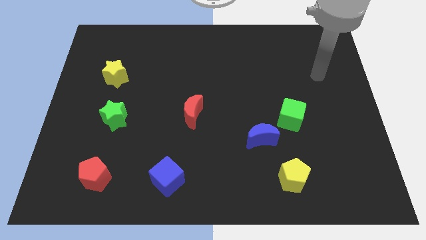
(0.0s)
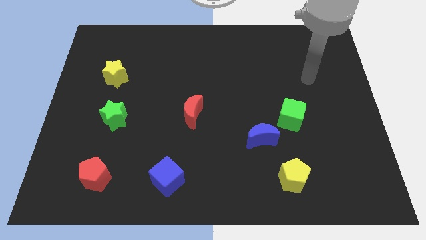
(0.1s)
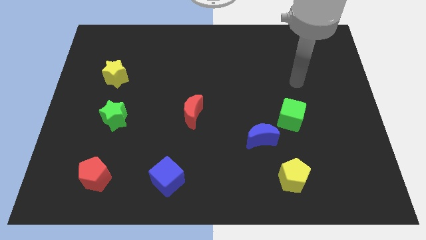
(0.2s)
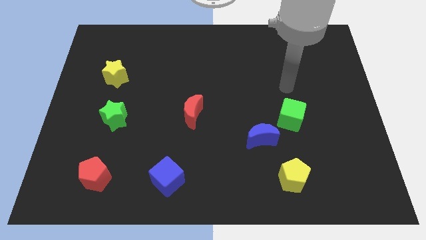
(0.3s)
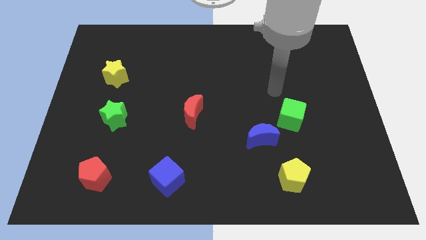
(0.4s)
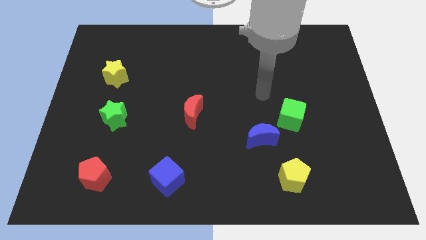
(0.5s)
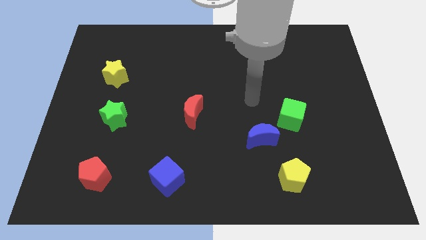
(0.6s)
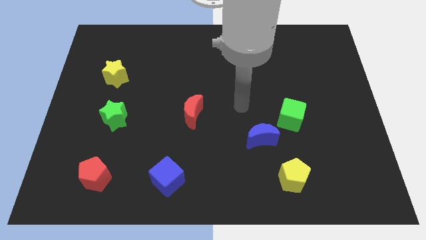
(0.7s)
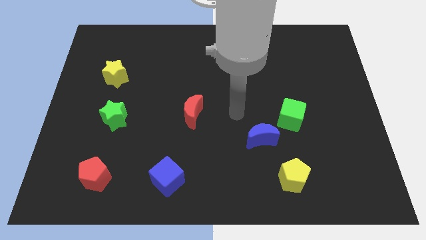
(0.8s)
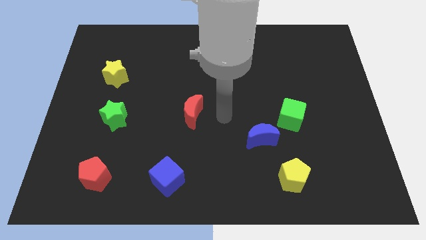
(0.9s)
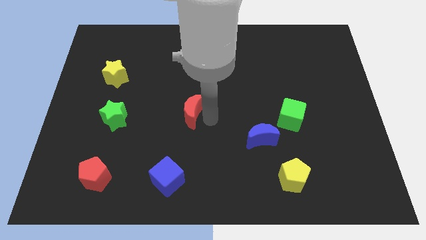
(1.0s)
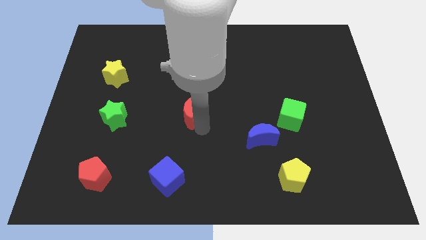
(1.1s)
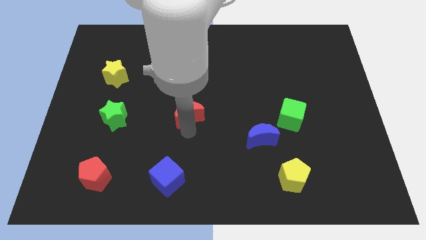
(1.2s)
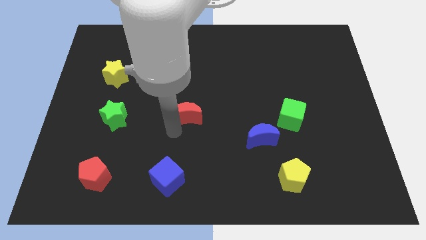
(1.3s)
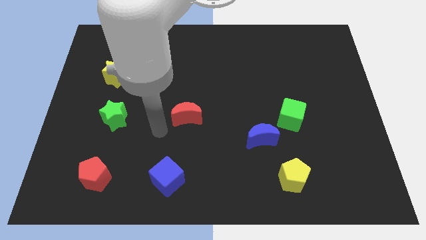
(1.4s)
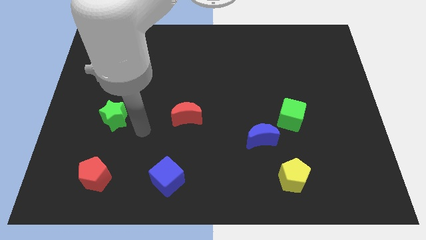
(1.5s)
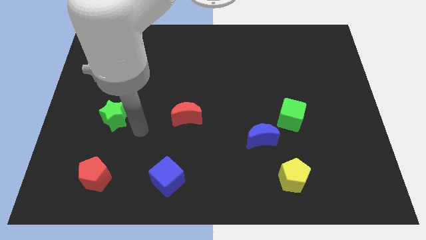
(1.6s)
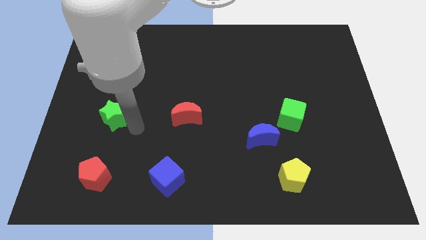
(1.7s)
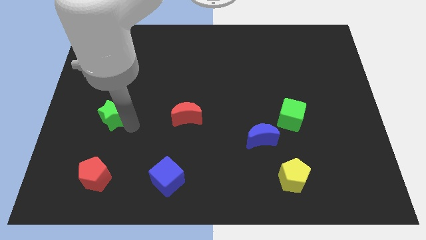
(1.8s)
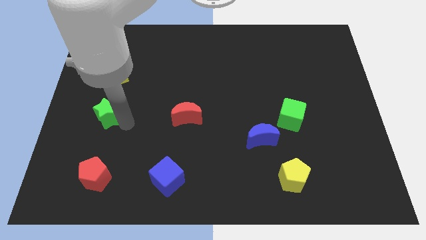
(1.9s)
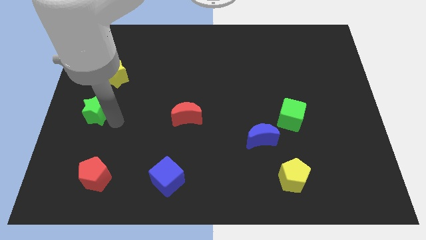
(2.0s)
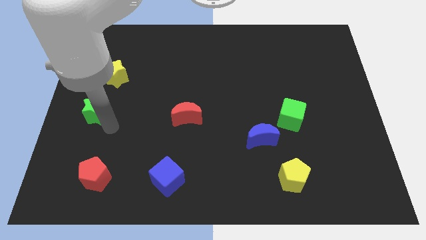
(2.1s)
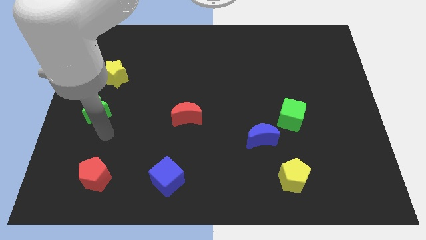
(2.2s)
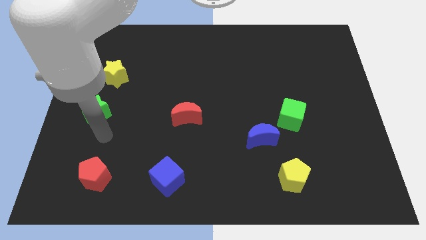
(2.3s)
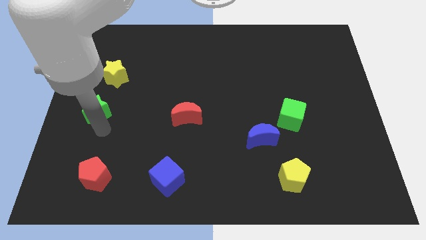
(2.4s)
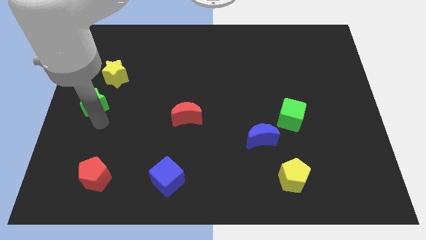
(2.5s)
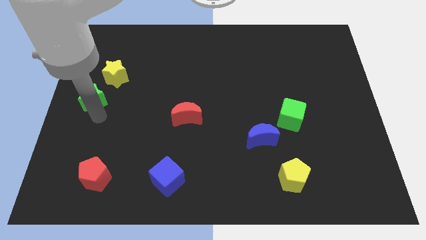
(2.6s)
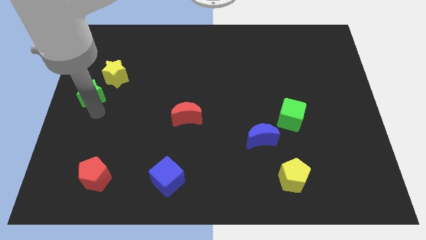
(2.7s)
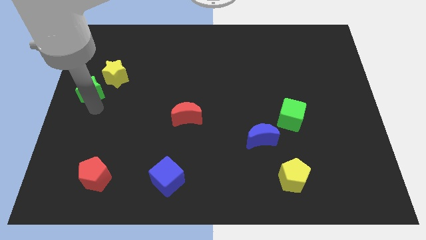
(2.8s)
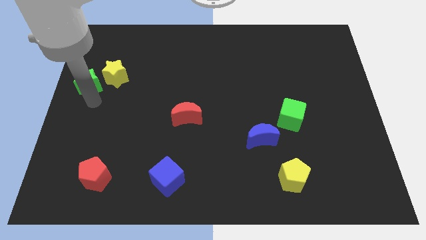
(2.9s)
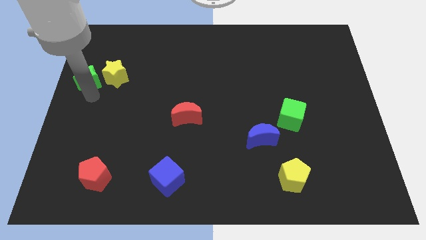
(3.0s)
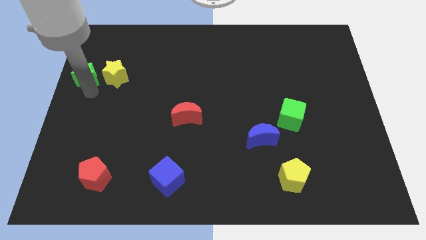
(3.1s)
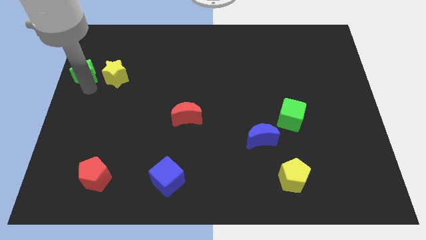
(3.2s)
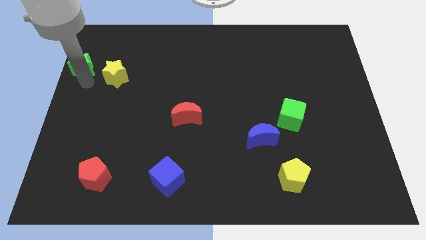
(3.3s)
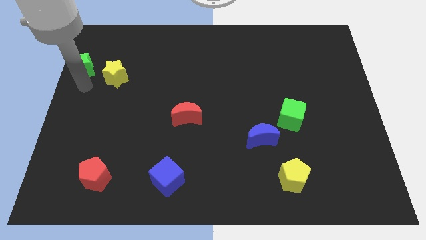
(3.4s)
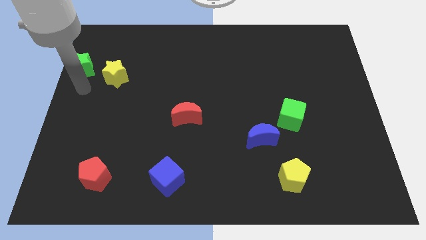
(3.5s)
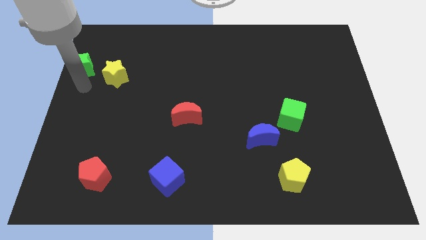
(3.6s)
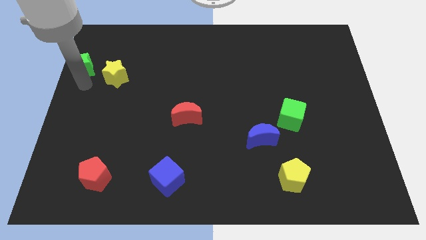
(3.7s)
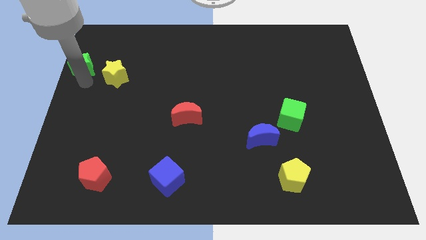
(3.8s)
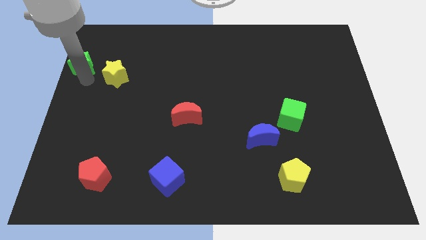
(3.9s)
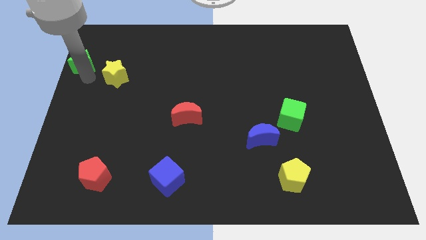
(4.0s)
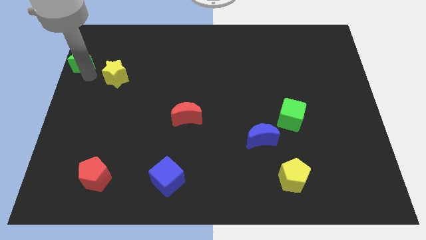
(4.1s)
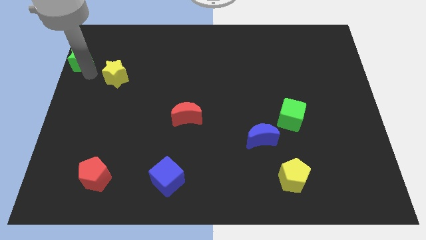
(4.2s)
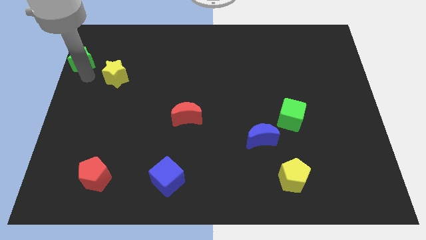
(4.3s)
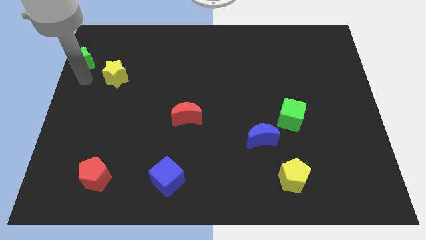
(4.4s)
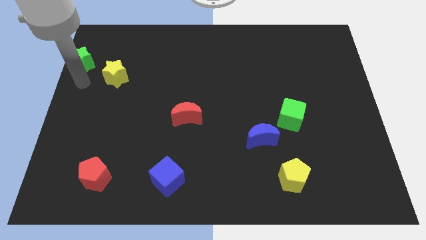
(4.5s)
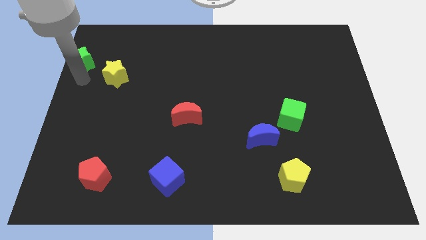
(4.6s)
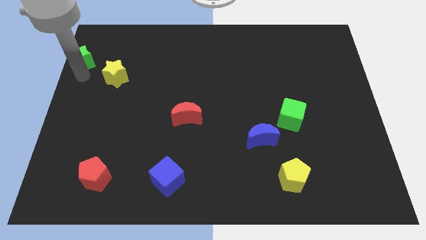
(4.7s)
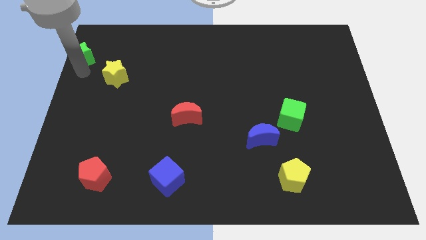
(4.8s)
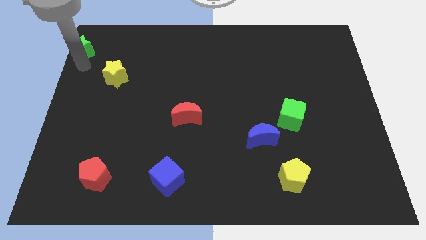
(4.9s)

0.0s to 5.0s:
move the green star to the top left of the board
